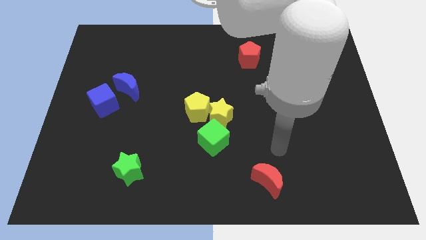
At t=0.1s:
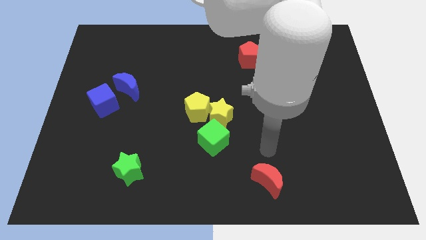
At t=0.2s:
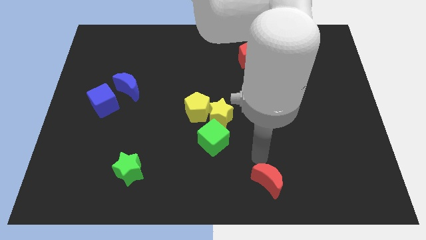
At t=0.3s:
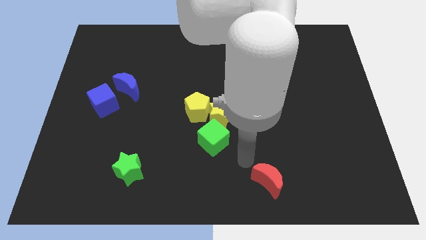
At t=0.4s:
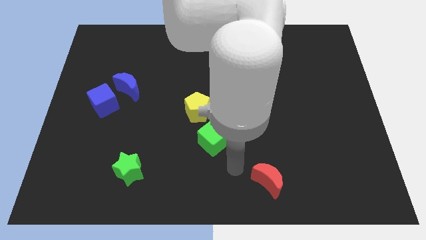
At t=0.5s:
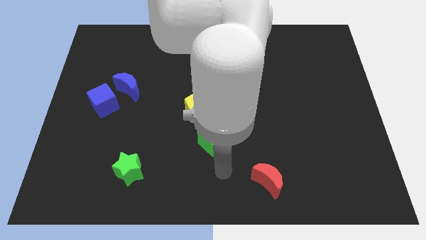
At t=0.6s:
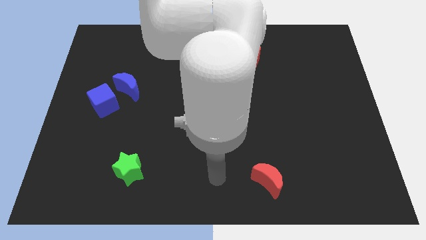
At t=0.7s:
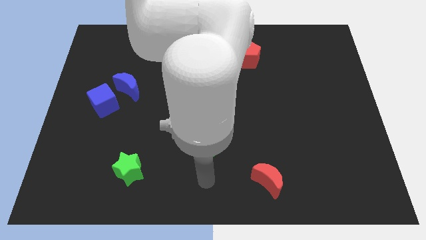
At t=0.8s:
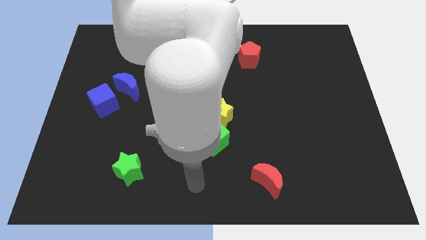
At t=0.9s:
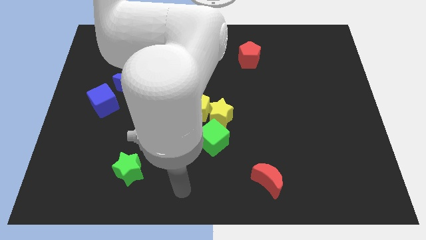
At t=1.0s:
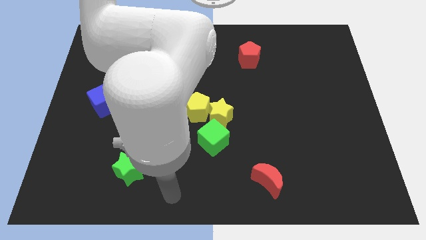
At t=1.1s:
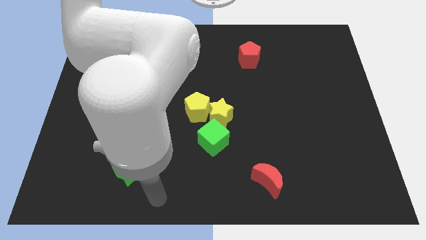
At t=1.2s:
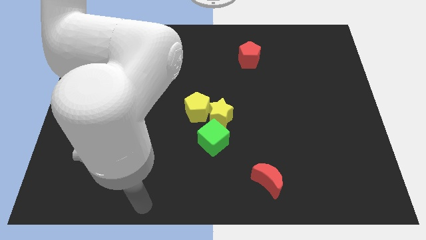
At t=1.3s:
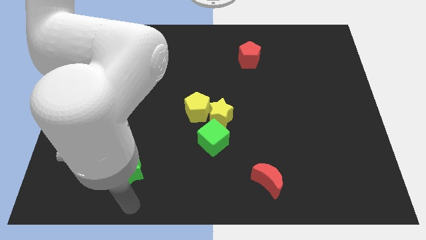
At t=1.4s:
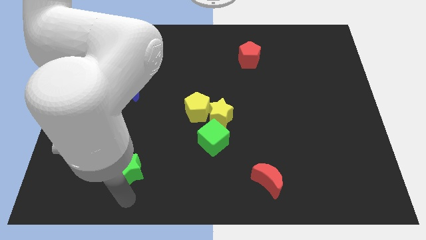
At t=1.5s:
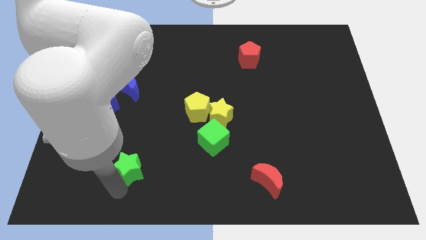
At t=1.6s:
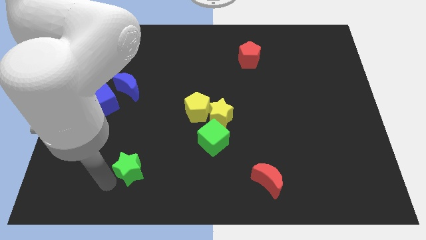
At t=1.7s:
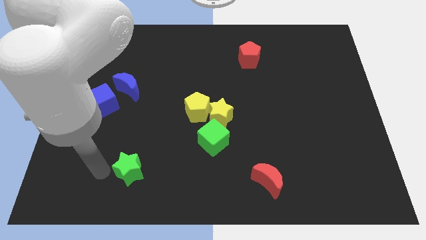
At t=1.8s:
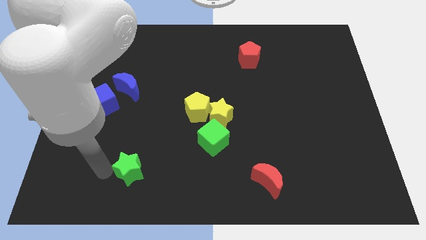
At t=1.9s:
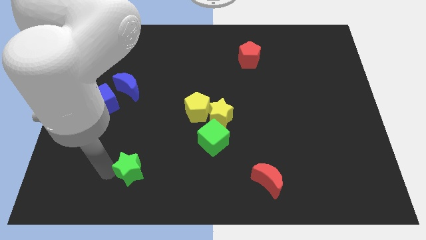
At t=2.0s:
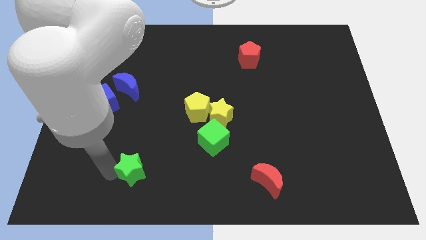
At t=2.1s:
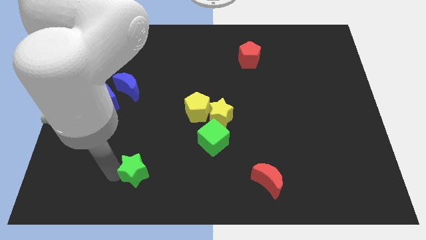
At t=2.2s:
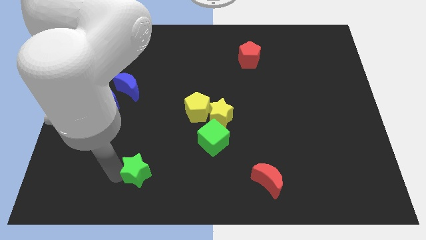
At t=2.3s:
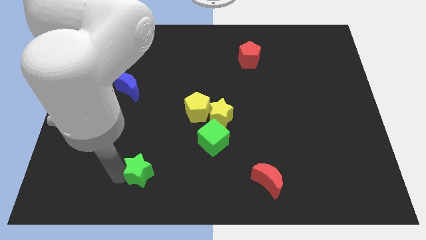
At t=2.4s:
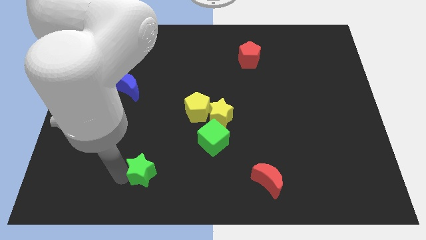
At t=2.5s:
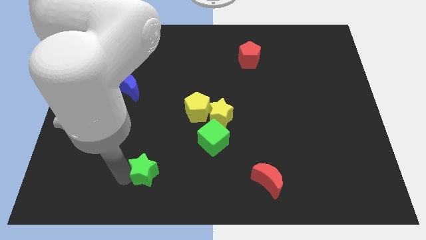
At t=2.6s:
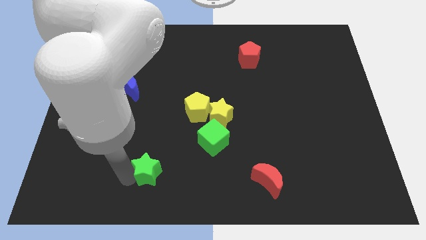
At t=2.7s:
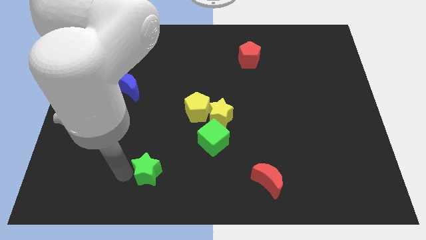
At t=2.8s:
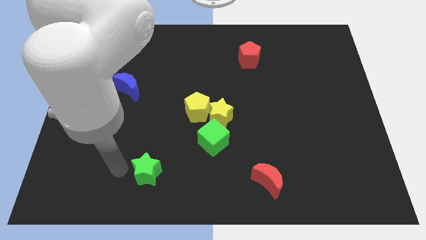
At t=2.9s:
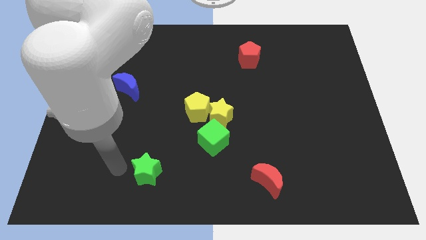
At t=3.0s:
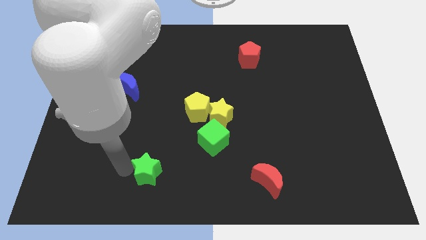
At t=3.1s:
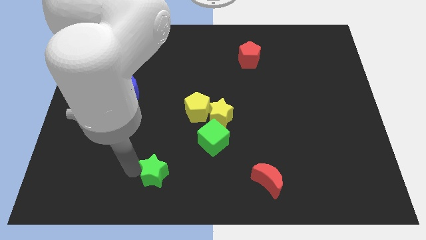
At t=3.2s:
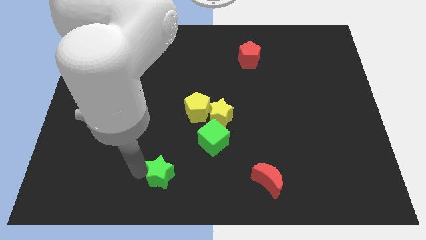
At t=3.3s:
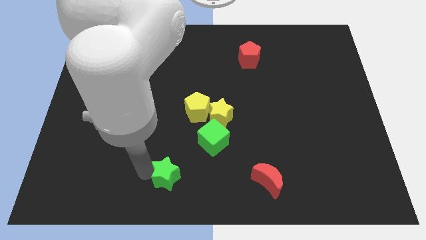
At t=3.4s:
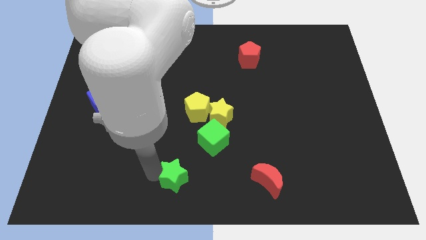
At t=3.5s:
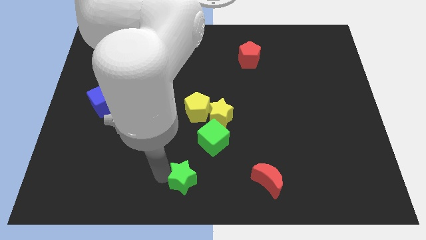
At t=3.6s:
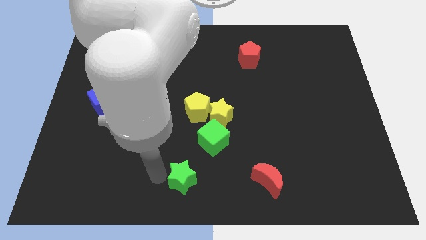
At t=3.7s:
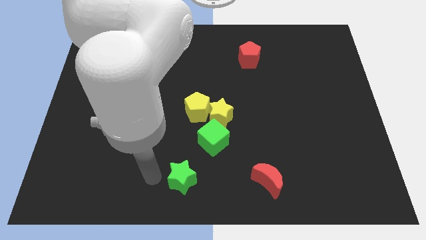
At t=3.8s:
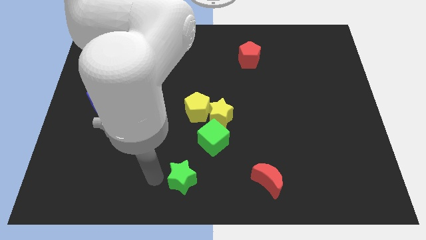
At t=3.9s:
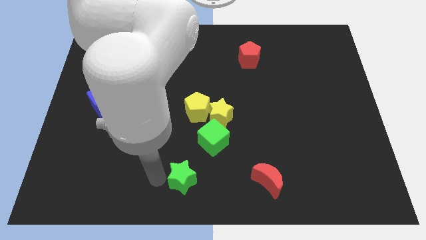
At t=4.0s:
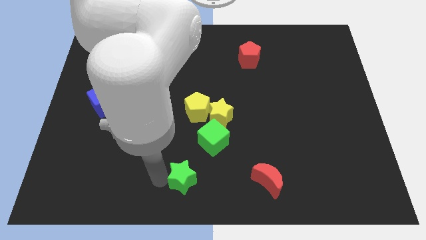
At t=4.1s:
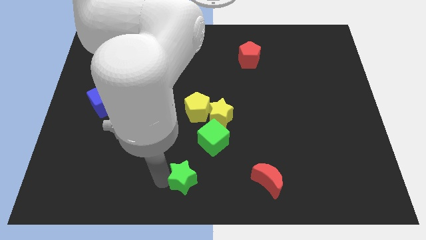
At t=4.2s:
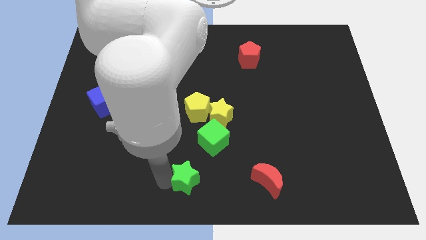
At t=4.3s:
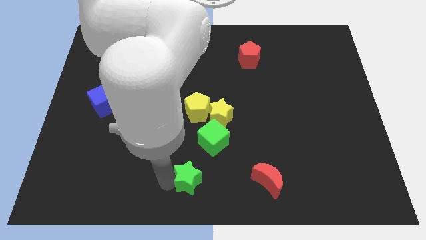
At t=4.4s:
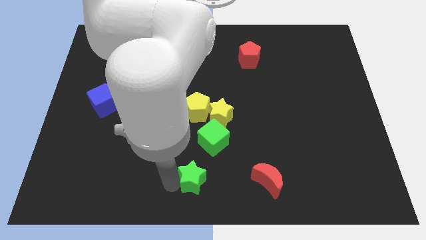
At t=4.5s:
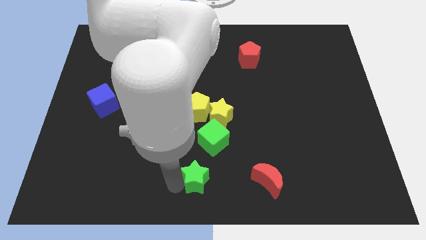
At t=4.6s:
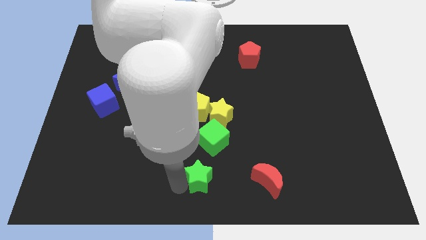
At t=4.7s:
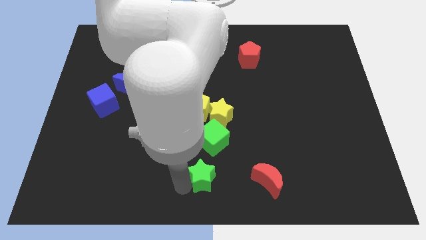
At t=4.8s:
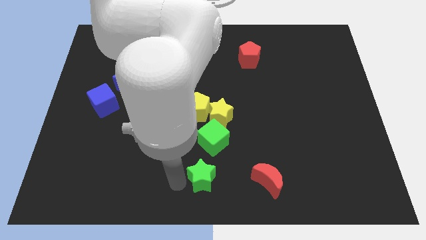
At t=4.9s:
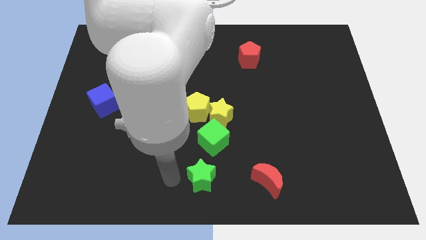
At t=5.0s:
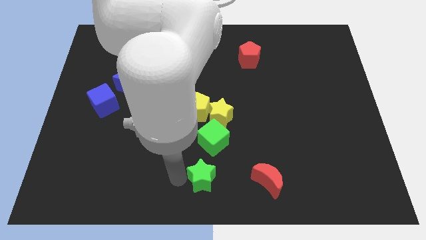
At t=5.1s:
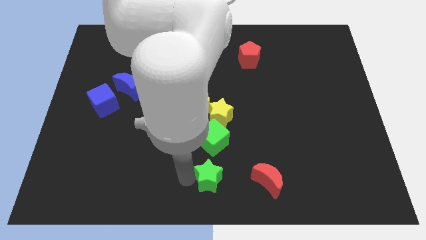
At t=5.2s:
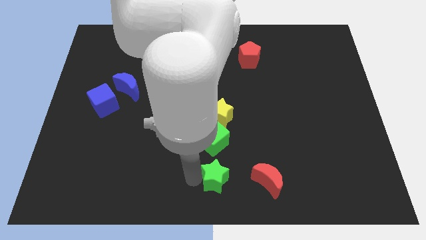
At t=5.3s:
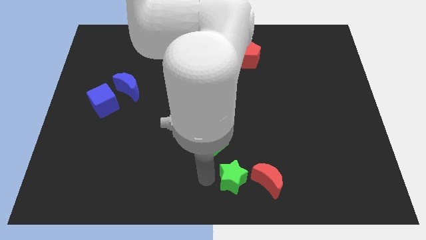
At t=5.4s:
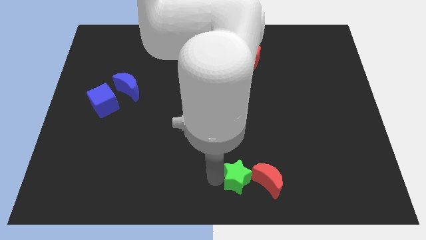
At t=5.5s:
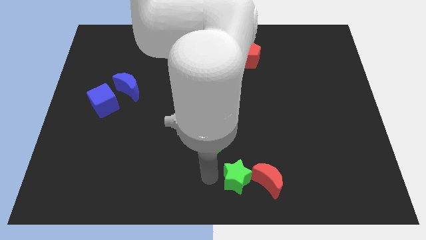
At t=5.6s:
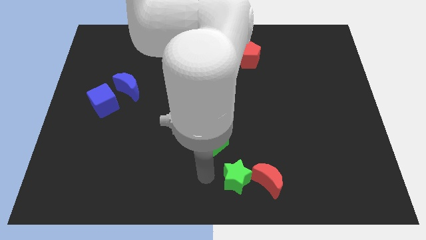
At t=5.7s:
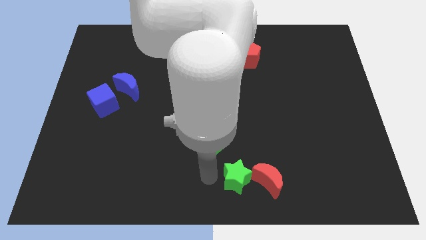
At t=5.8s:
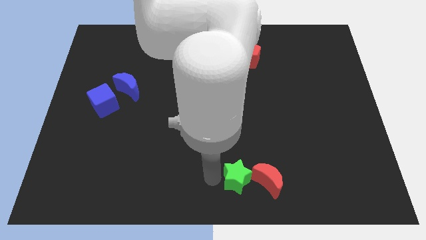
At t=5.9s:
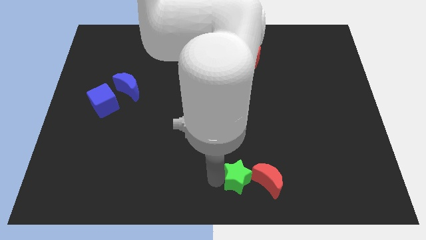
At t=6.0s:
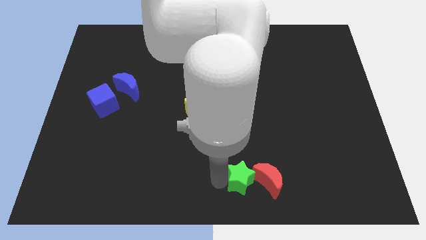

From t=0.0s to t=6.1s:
put the green star close to the red moon

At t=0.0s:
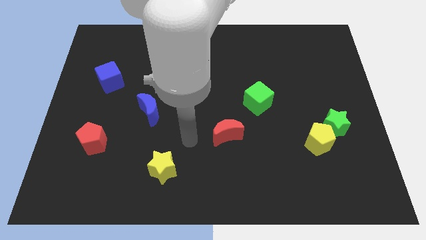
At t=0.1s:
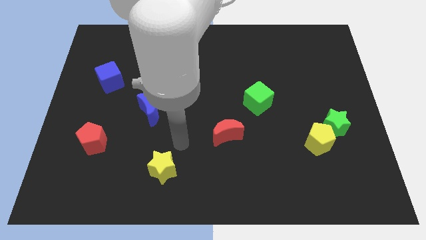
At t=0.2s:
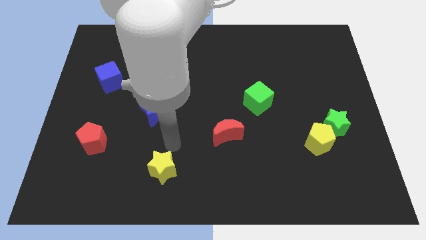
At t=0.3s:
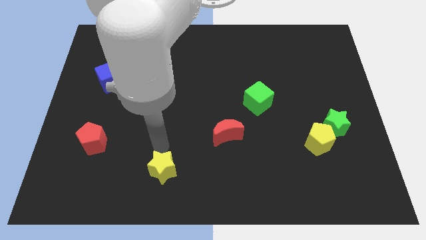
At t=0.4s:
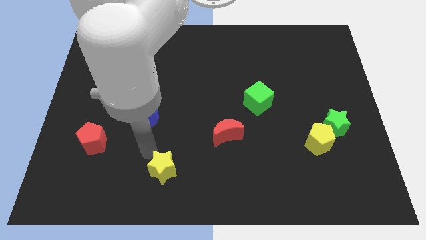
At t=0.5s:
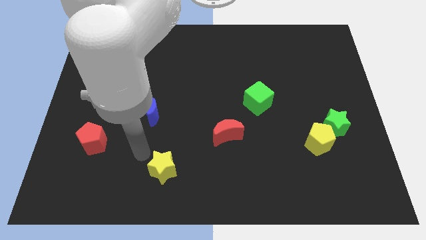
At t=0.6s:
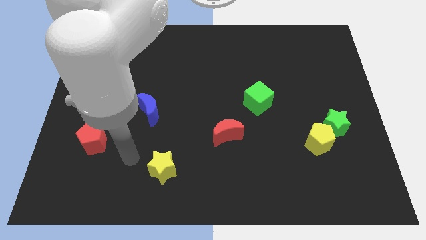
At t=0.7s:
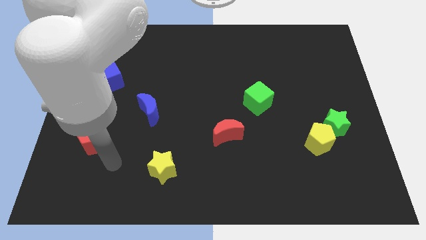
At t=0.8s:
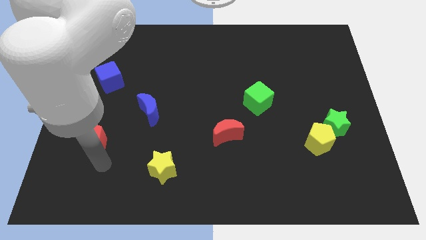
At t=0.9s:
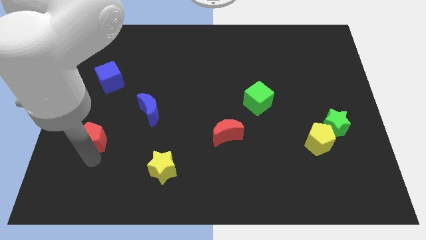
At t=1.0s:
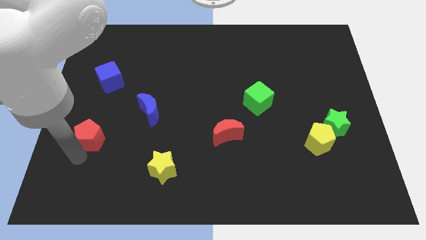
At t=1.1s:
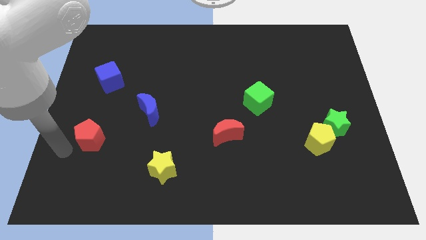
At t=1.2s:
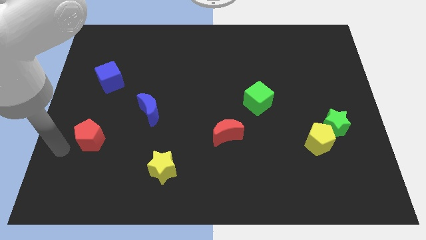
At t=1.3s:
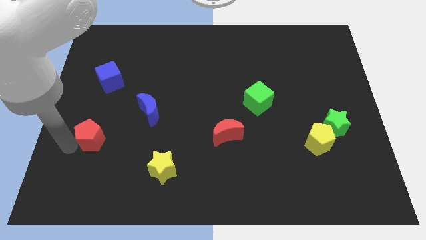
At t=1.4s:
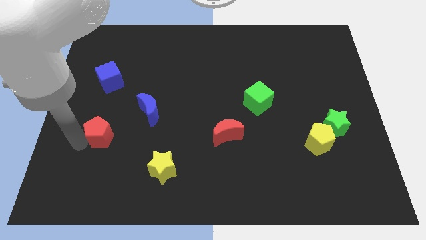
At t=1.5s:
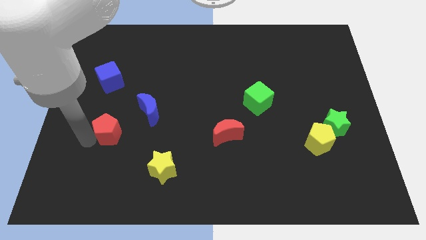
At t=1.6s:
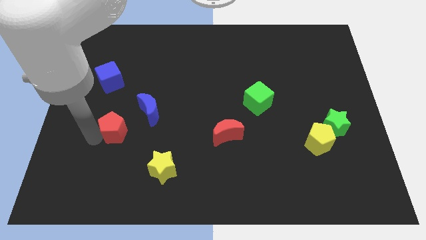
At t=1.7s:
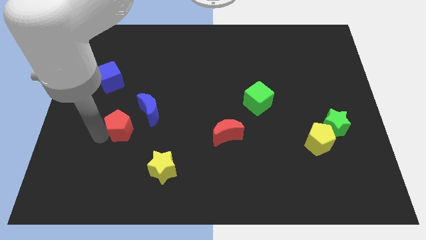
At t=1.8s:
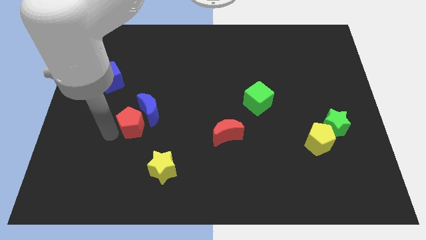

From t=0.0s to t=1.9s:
move the red pentagon close to the blue moon
